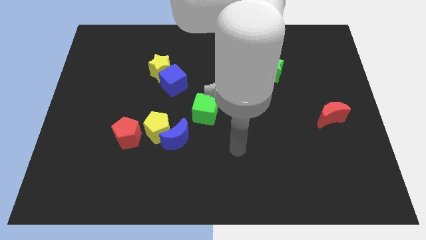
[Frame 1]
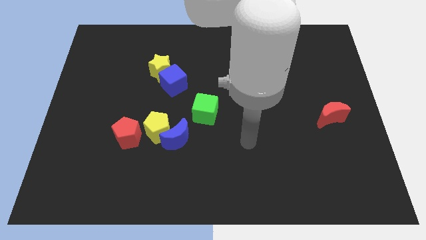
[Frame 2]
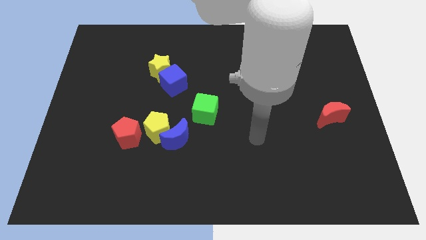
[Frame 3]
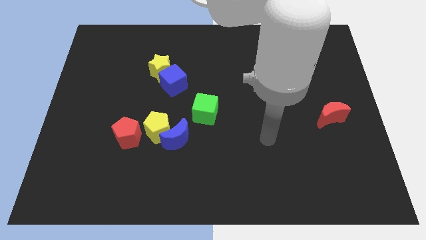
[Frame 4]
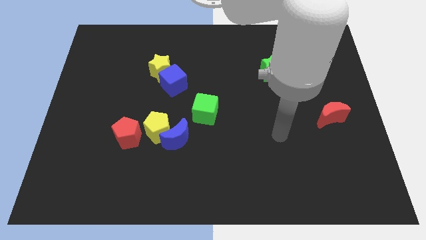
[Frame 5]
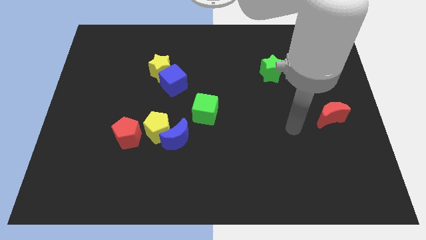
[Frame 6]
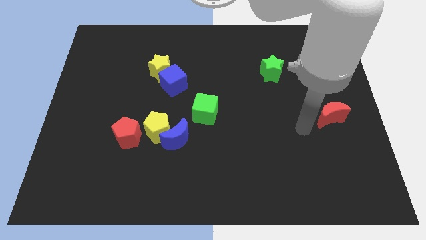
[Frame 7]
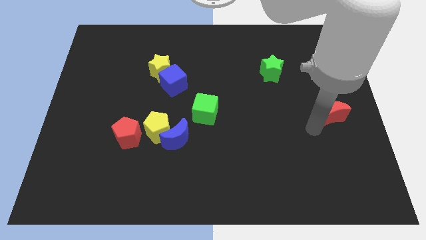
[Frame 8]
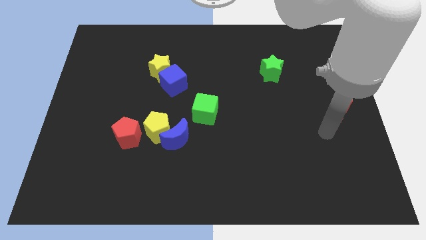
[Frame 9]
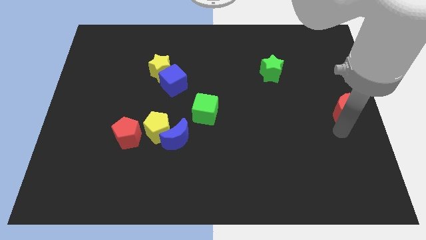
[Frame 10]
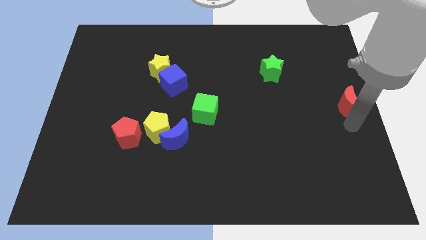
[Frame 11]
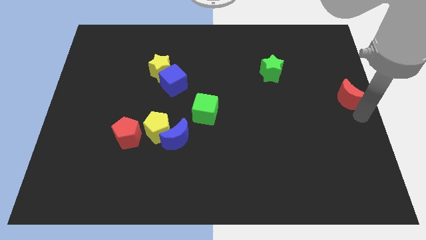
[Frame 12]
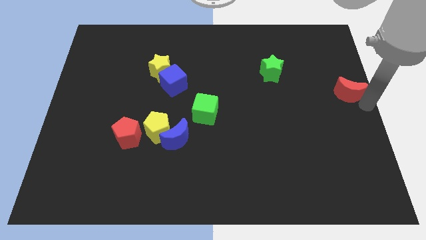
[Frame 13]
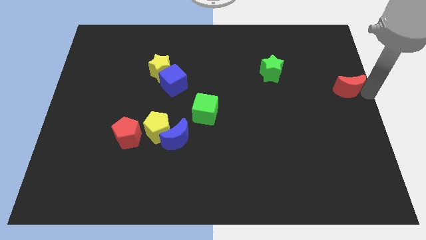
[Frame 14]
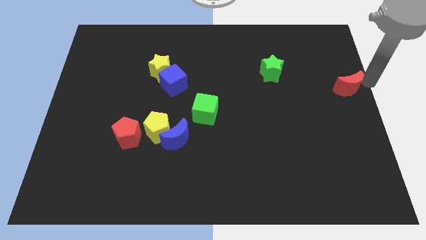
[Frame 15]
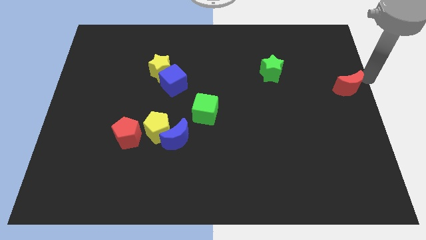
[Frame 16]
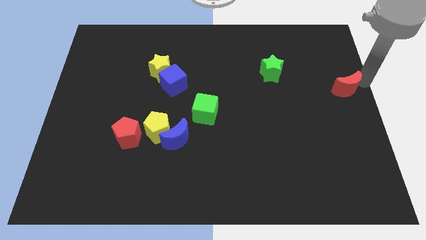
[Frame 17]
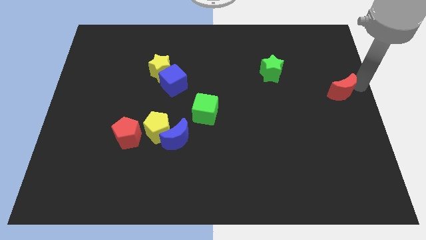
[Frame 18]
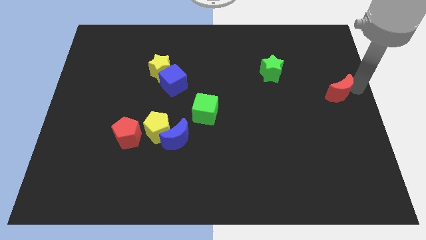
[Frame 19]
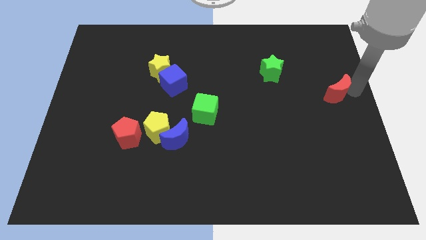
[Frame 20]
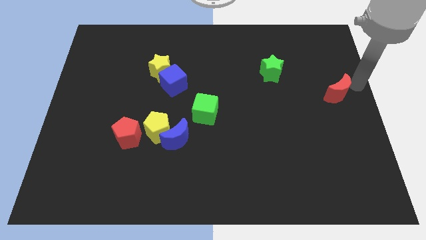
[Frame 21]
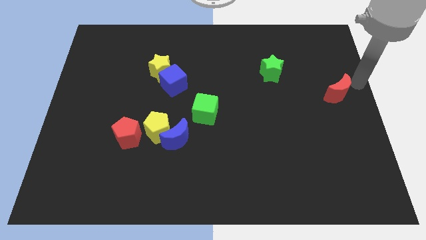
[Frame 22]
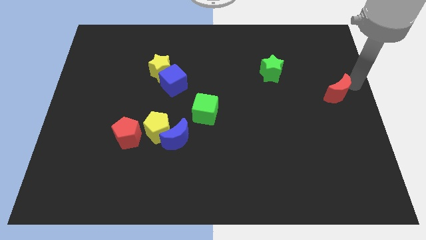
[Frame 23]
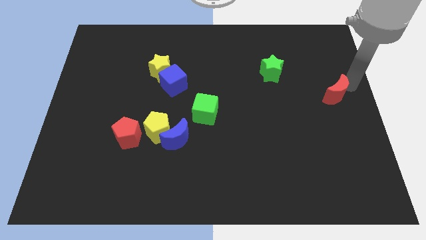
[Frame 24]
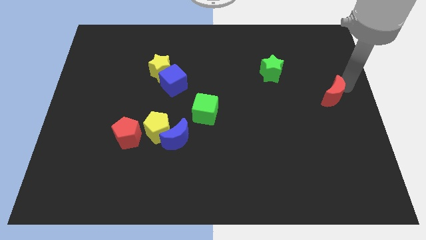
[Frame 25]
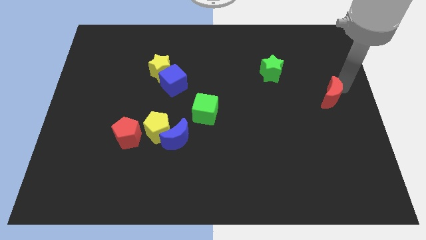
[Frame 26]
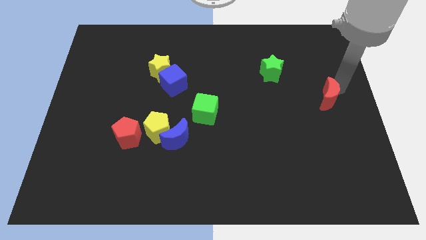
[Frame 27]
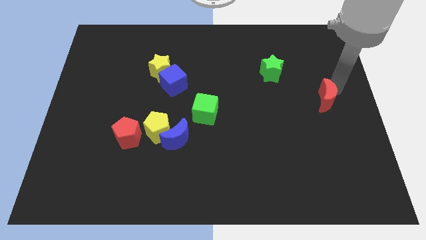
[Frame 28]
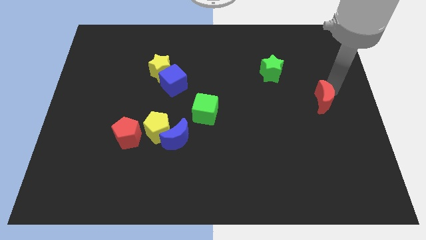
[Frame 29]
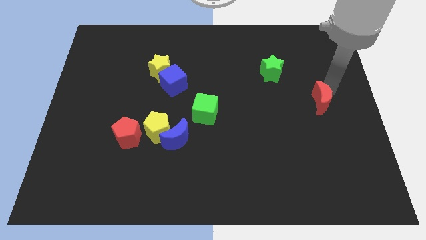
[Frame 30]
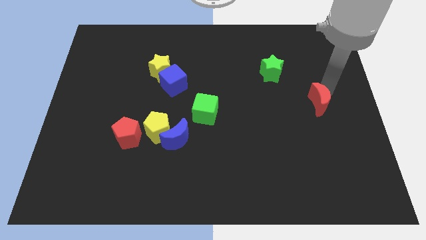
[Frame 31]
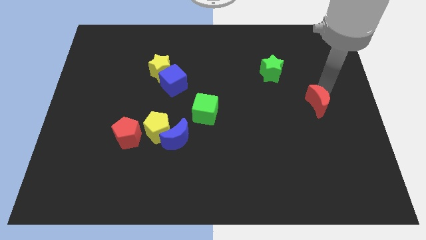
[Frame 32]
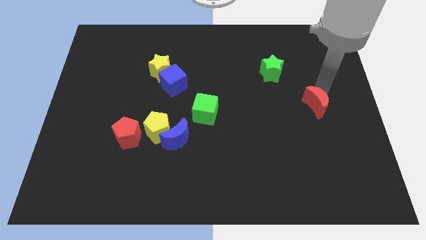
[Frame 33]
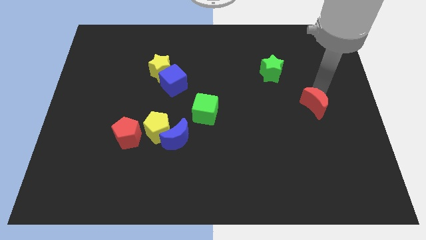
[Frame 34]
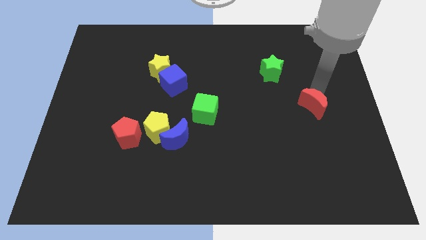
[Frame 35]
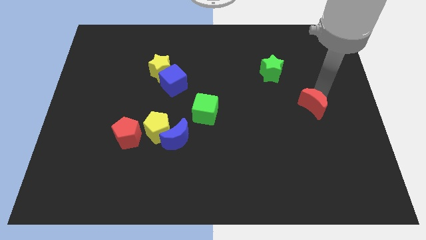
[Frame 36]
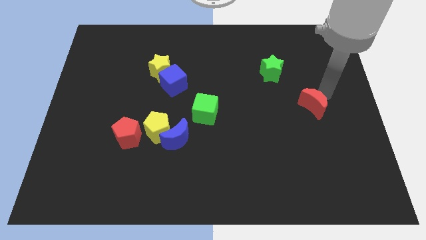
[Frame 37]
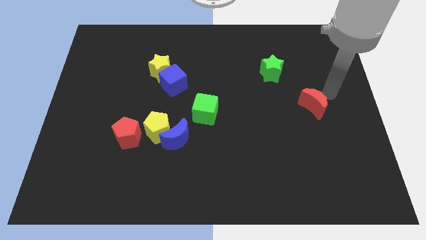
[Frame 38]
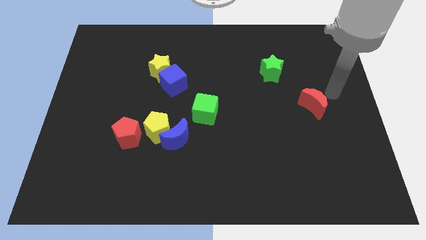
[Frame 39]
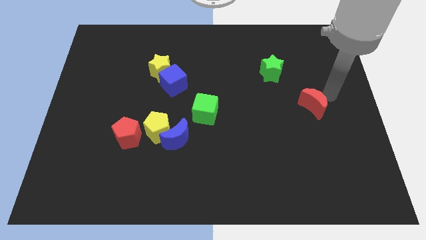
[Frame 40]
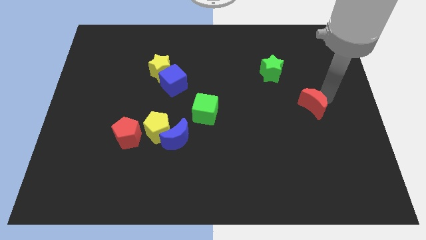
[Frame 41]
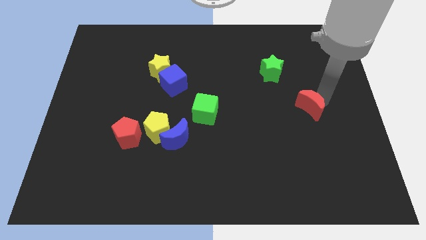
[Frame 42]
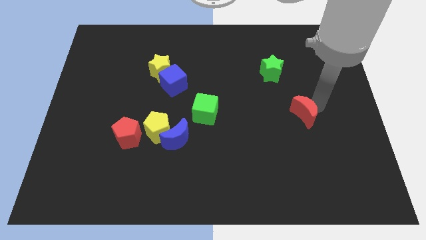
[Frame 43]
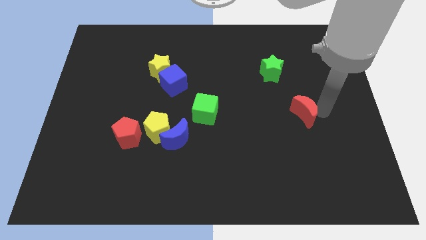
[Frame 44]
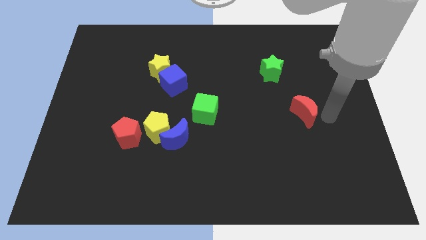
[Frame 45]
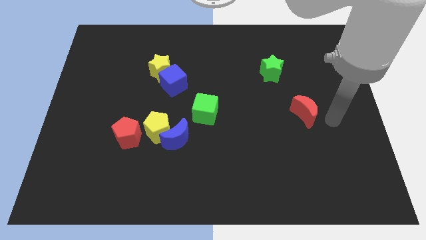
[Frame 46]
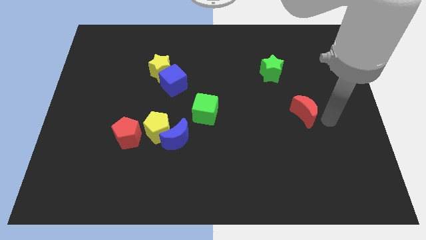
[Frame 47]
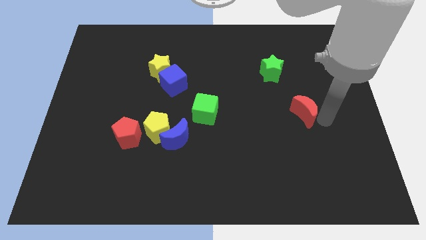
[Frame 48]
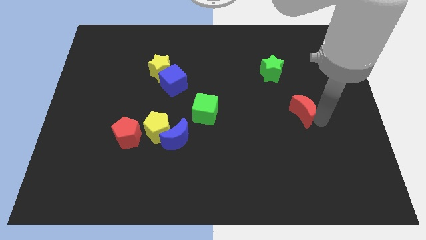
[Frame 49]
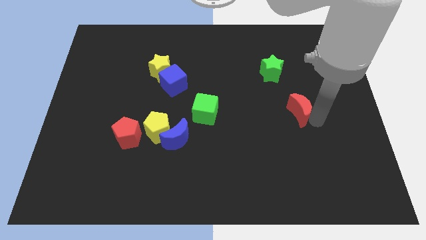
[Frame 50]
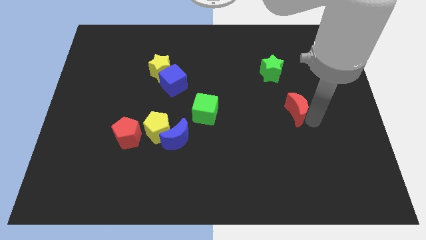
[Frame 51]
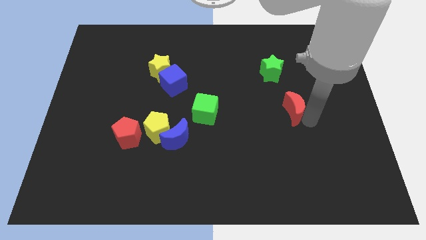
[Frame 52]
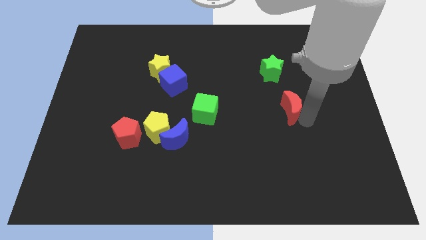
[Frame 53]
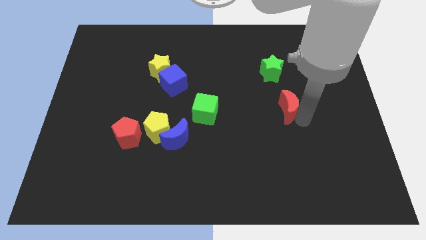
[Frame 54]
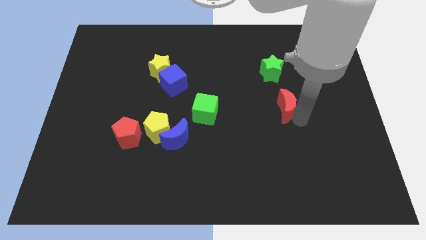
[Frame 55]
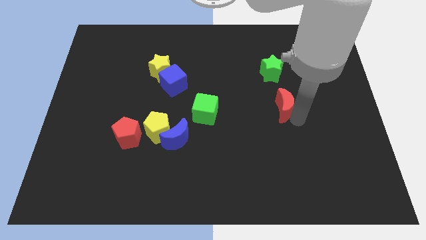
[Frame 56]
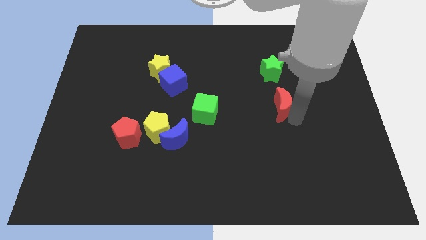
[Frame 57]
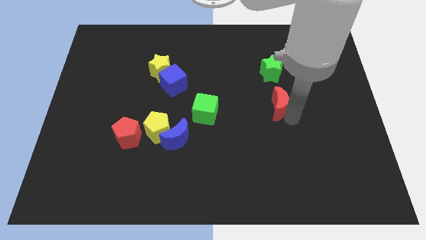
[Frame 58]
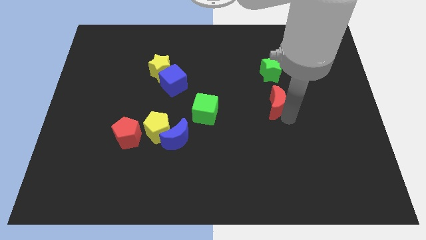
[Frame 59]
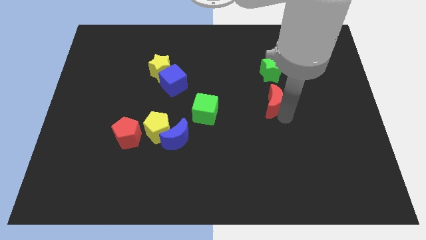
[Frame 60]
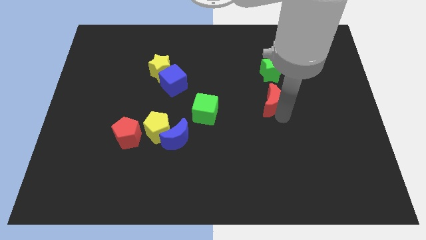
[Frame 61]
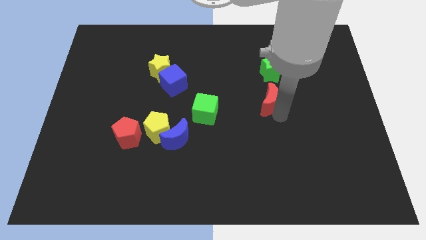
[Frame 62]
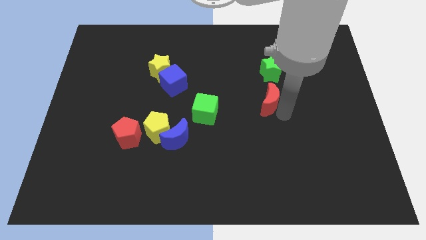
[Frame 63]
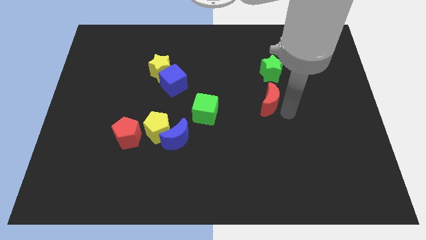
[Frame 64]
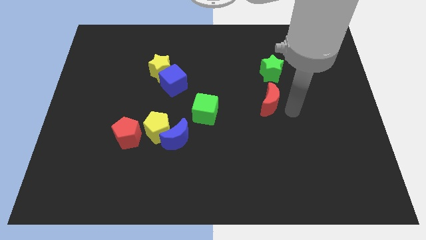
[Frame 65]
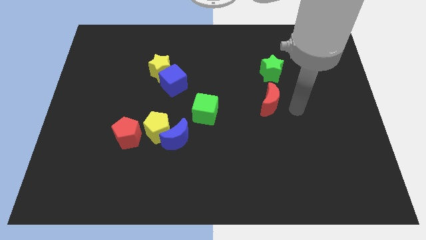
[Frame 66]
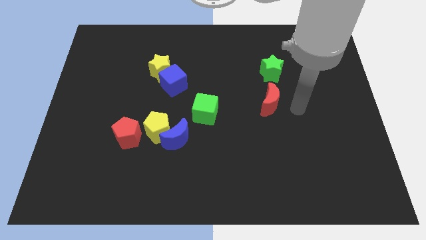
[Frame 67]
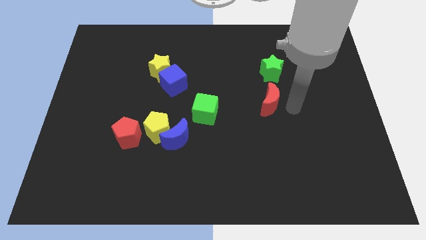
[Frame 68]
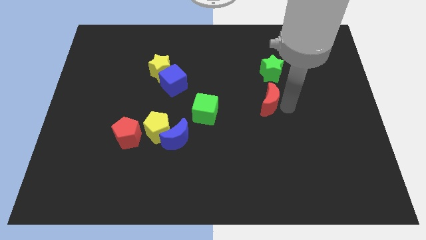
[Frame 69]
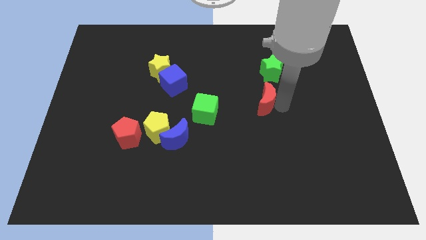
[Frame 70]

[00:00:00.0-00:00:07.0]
move the red moon to the center
